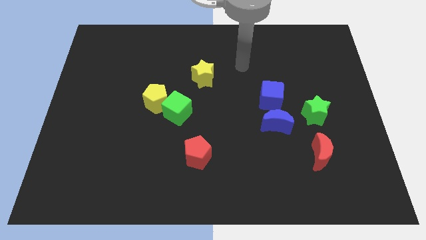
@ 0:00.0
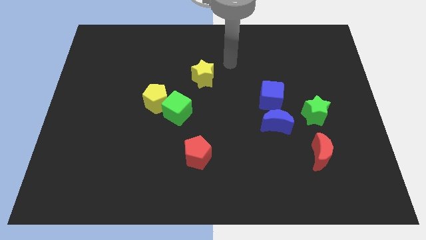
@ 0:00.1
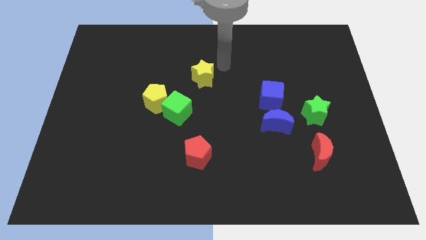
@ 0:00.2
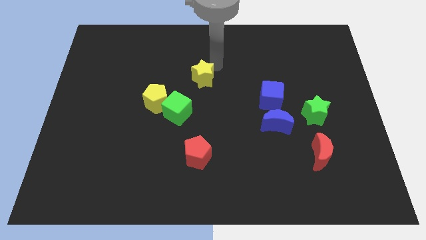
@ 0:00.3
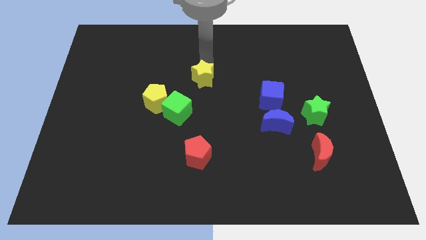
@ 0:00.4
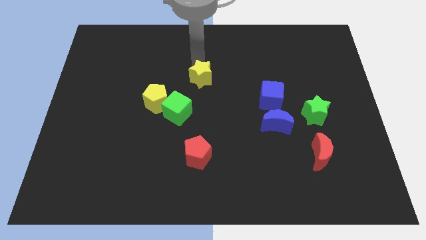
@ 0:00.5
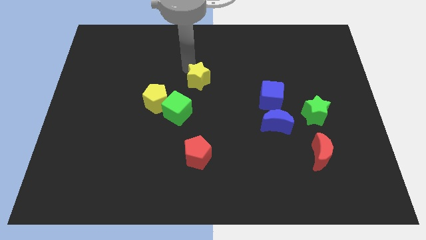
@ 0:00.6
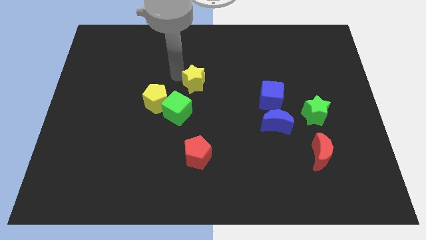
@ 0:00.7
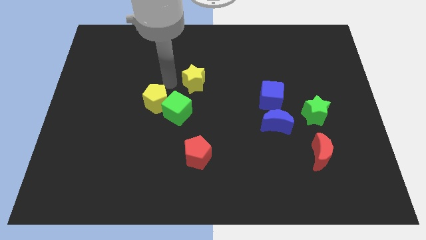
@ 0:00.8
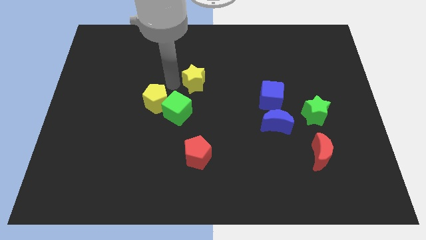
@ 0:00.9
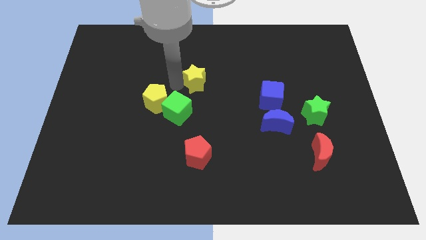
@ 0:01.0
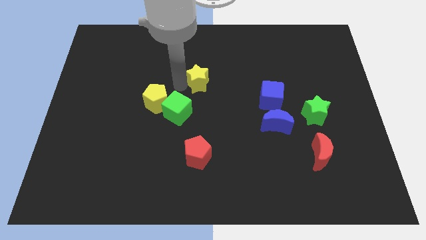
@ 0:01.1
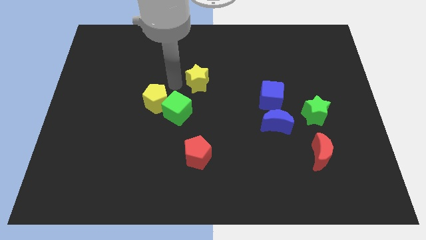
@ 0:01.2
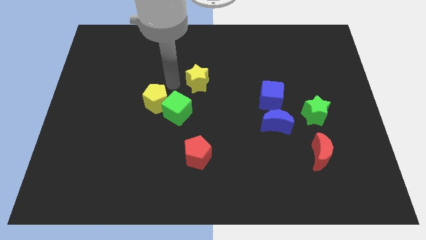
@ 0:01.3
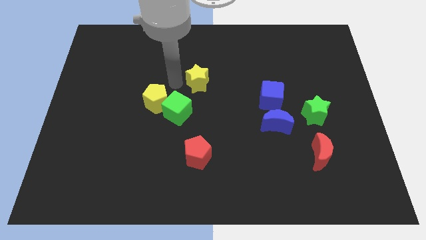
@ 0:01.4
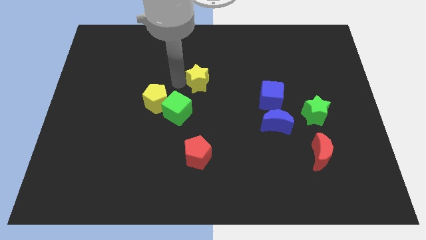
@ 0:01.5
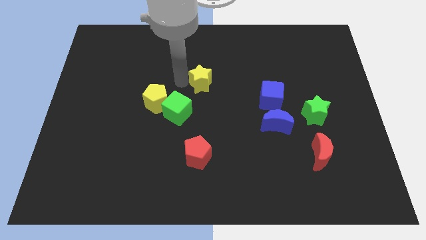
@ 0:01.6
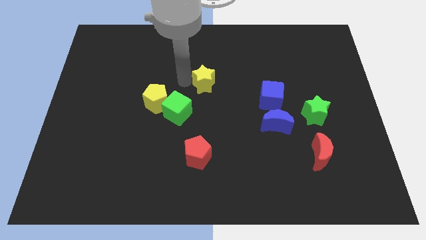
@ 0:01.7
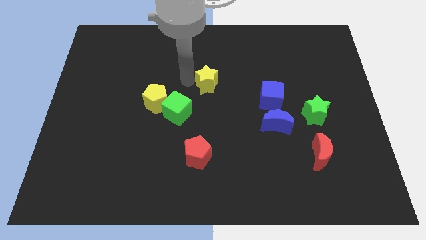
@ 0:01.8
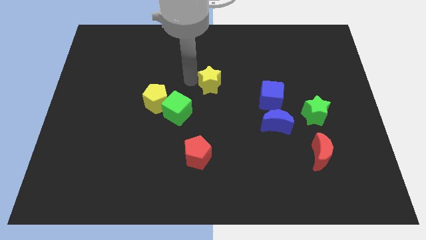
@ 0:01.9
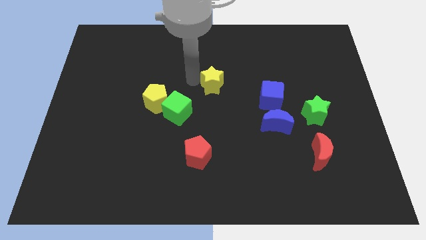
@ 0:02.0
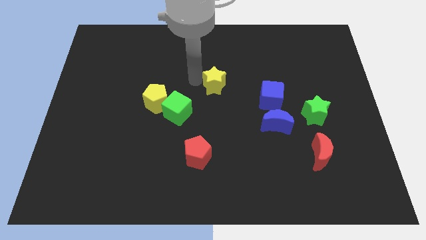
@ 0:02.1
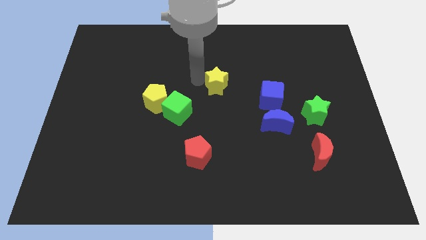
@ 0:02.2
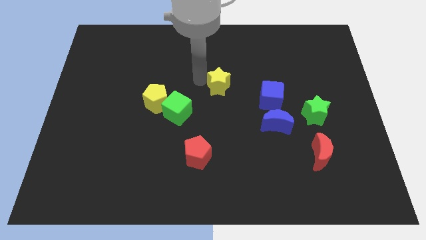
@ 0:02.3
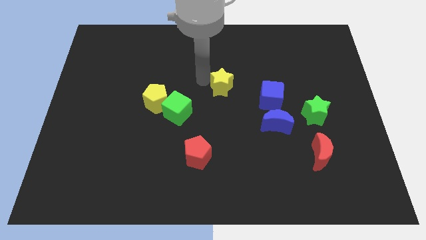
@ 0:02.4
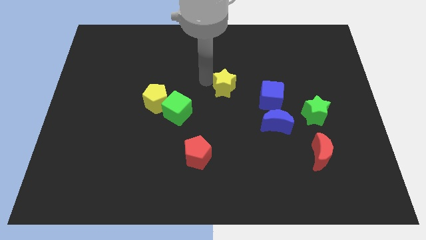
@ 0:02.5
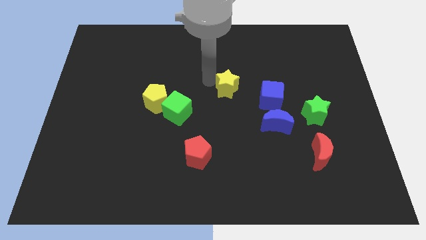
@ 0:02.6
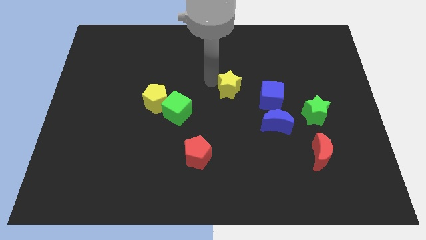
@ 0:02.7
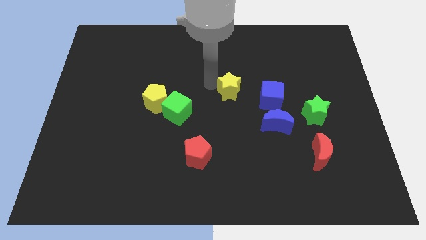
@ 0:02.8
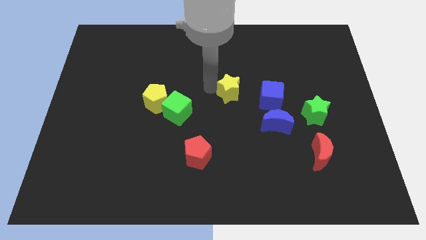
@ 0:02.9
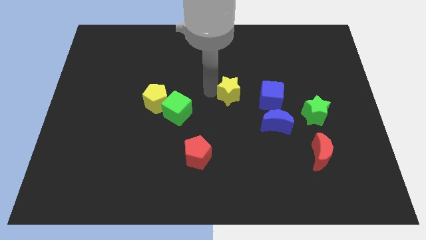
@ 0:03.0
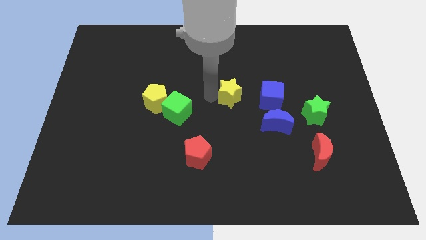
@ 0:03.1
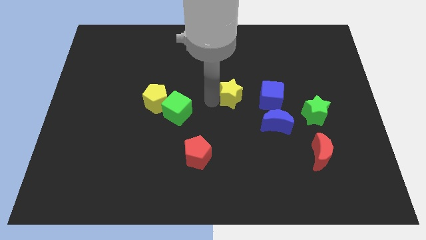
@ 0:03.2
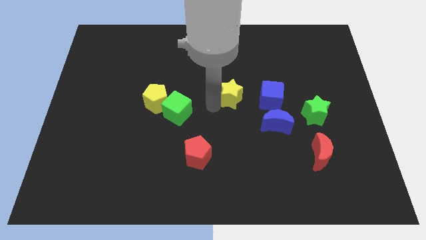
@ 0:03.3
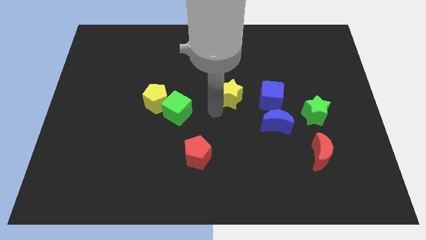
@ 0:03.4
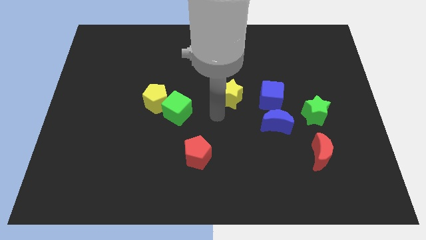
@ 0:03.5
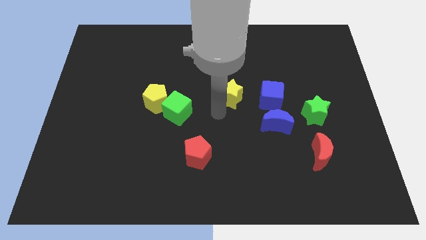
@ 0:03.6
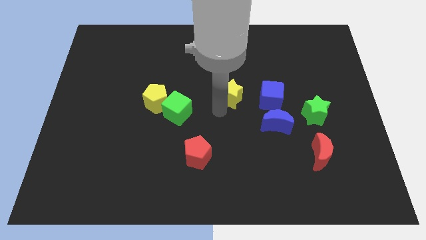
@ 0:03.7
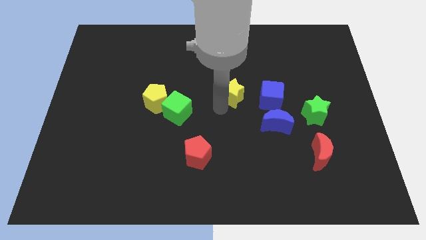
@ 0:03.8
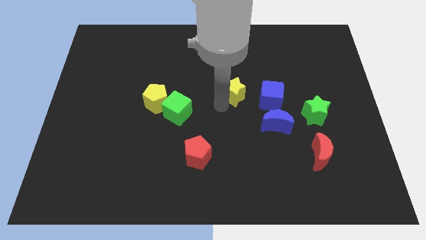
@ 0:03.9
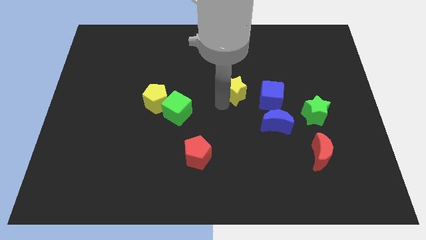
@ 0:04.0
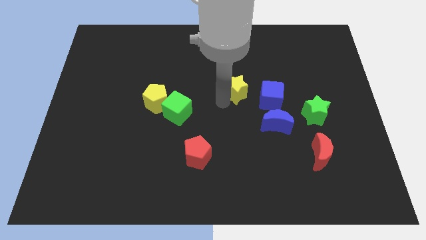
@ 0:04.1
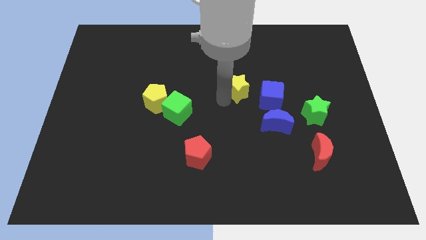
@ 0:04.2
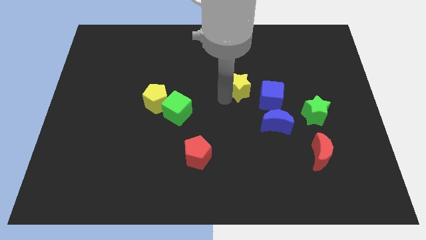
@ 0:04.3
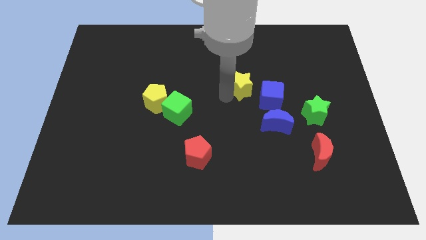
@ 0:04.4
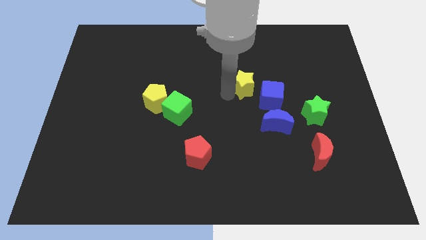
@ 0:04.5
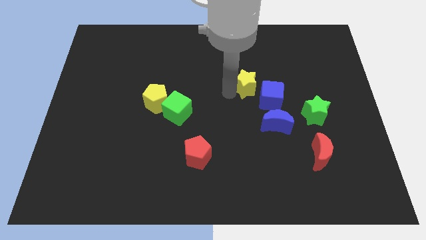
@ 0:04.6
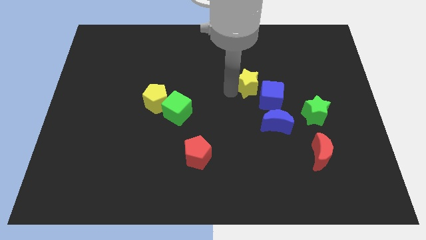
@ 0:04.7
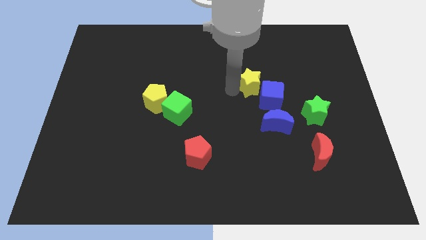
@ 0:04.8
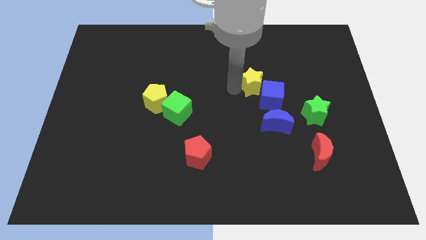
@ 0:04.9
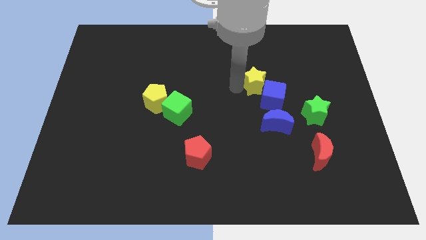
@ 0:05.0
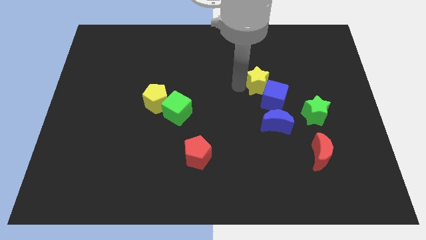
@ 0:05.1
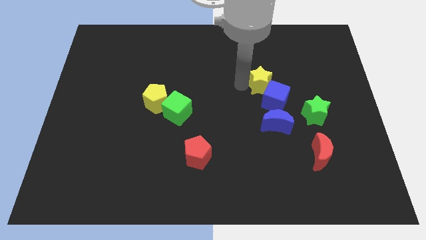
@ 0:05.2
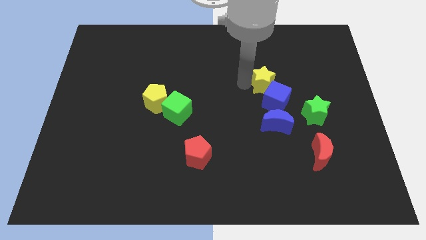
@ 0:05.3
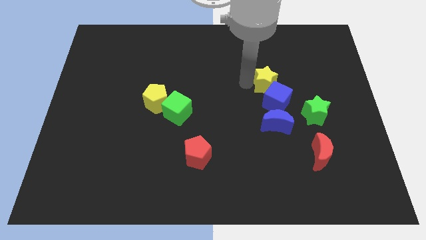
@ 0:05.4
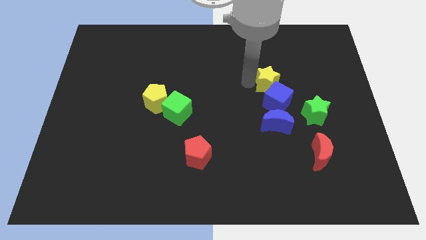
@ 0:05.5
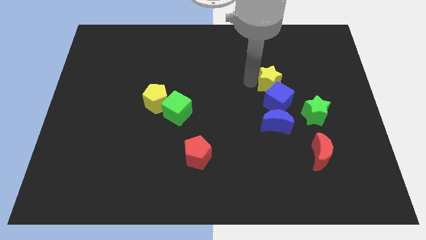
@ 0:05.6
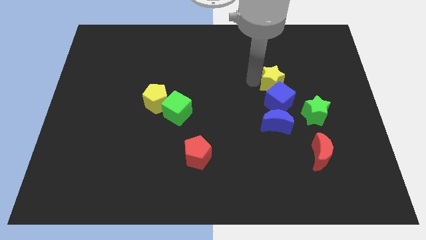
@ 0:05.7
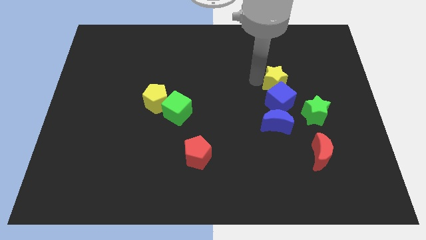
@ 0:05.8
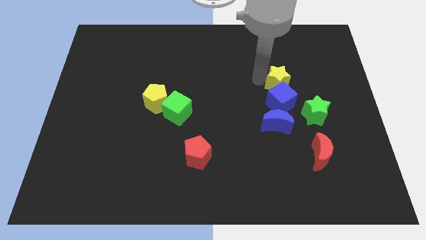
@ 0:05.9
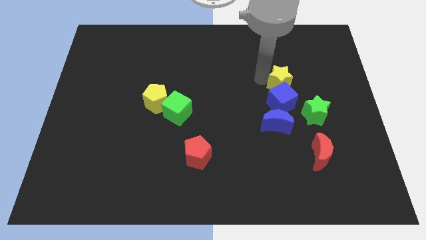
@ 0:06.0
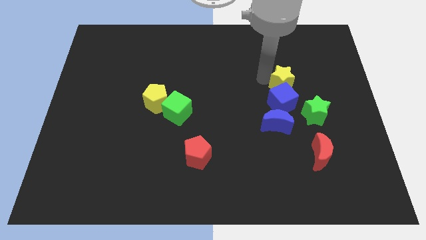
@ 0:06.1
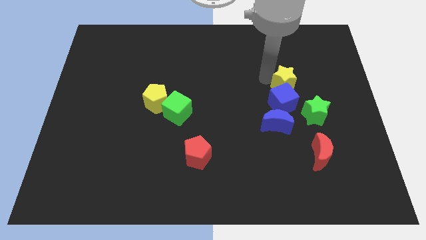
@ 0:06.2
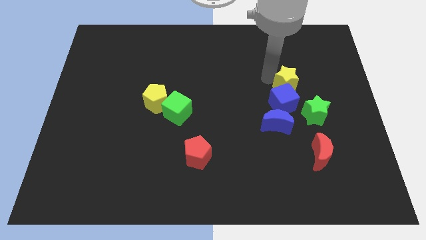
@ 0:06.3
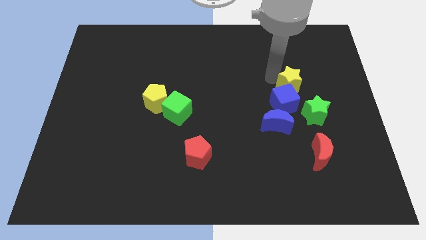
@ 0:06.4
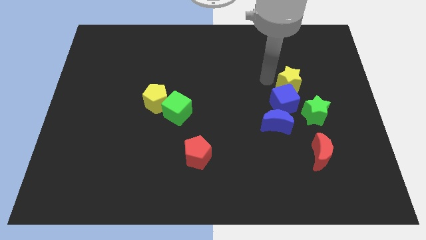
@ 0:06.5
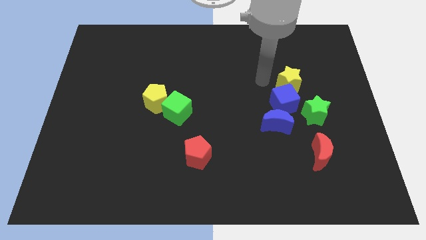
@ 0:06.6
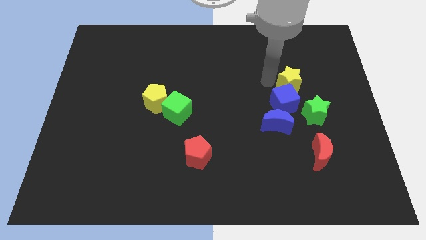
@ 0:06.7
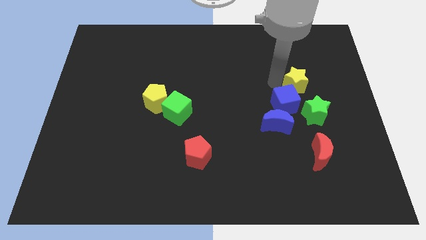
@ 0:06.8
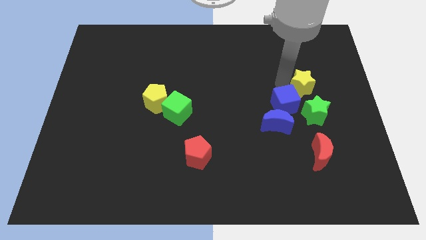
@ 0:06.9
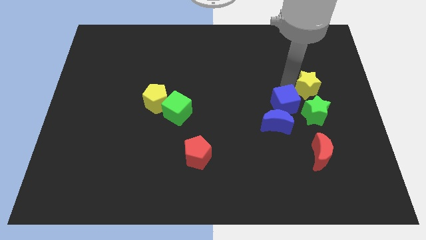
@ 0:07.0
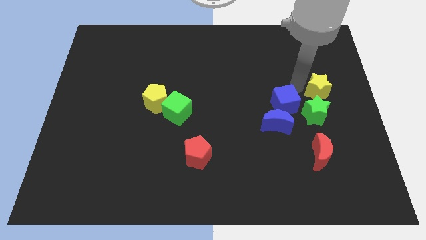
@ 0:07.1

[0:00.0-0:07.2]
slide the yellow star to the right side

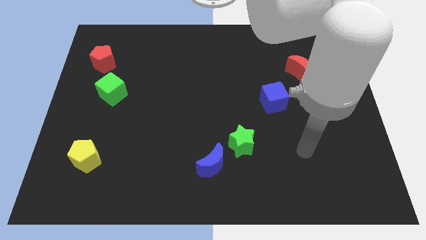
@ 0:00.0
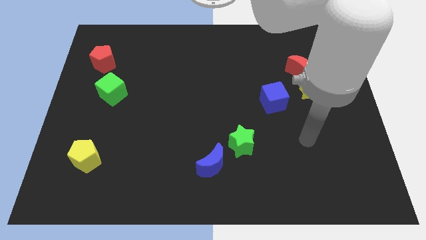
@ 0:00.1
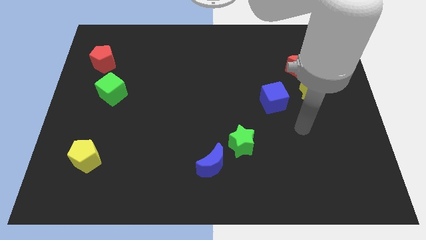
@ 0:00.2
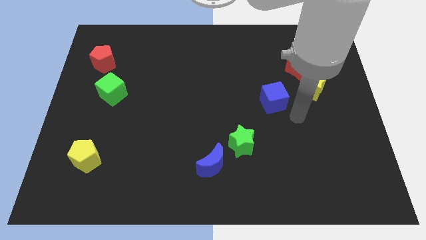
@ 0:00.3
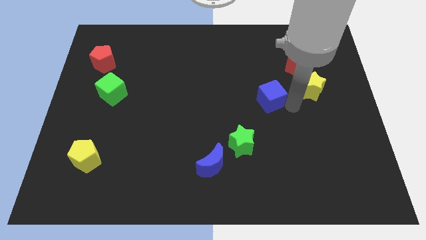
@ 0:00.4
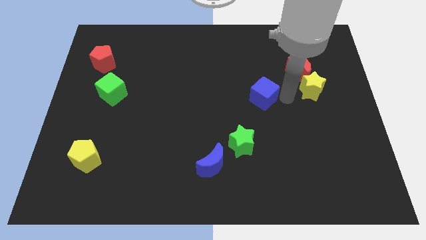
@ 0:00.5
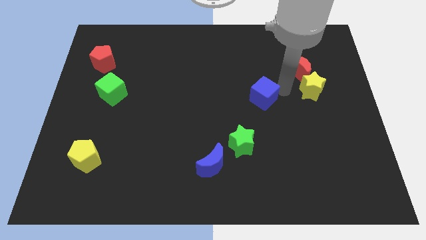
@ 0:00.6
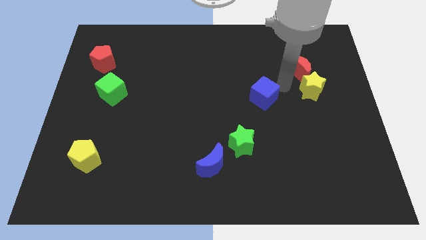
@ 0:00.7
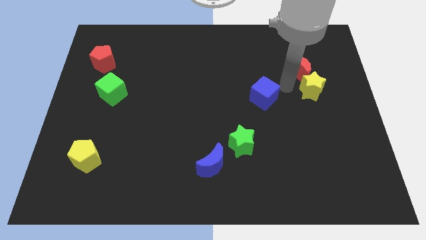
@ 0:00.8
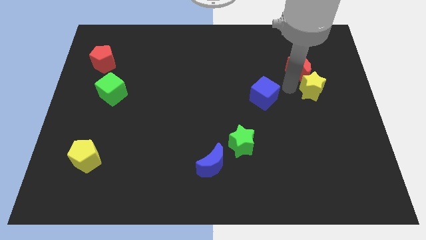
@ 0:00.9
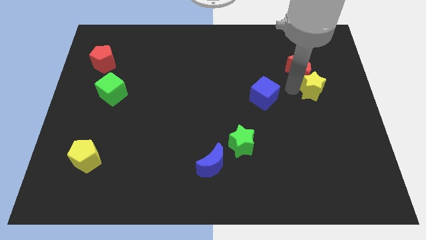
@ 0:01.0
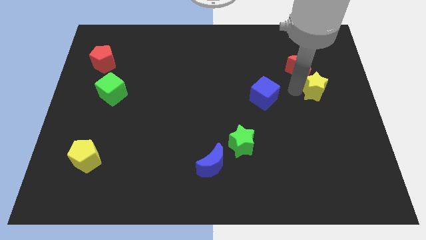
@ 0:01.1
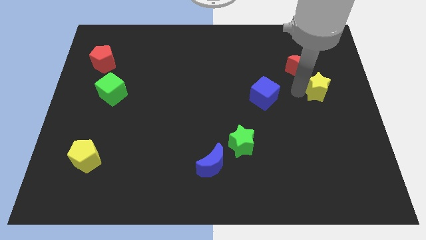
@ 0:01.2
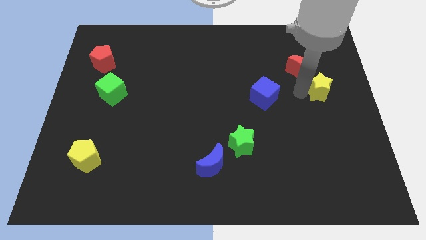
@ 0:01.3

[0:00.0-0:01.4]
put the yellow star to the right side
